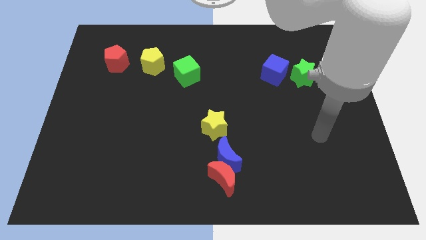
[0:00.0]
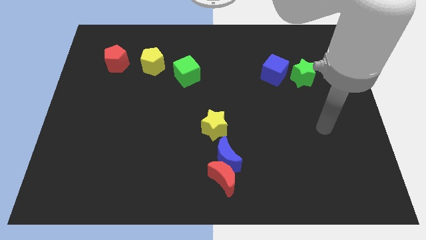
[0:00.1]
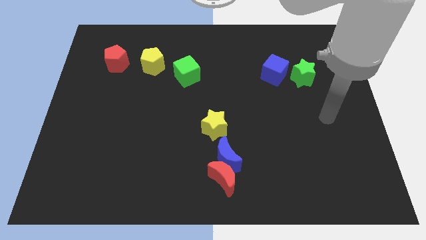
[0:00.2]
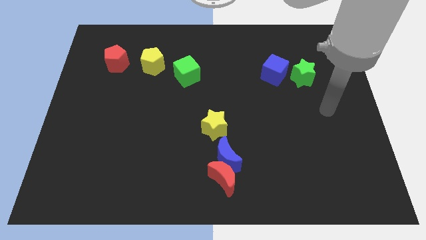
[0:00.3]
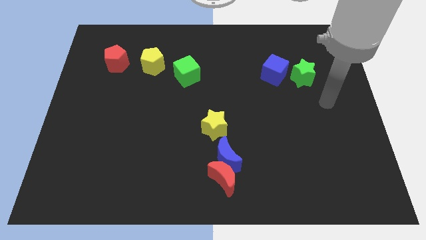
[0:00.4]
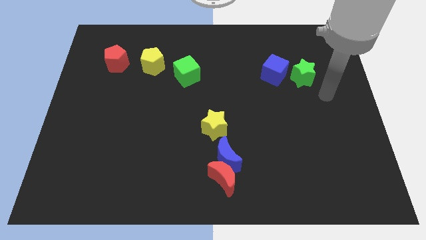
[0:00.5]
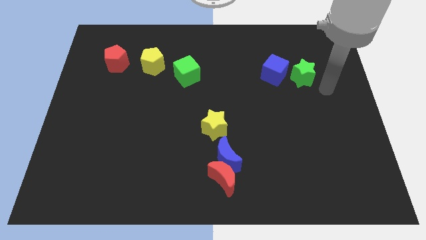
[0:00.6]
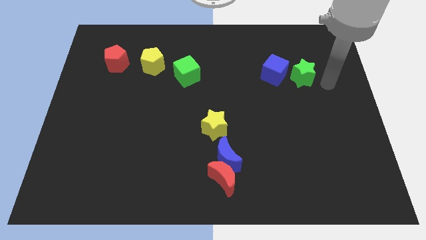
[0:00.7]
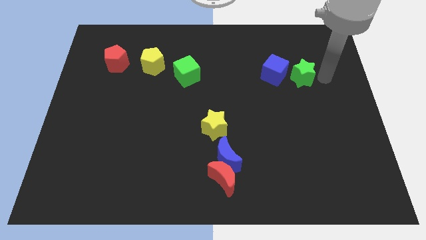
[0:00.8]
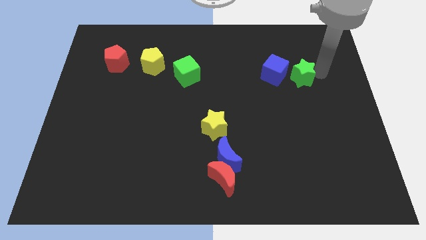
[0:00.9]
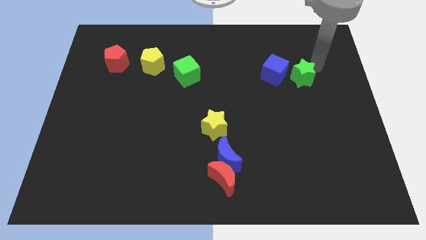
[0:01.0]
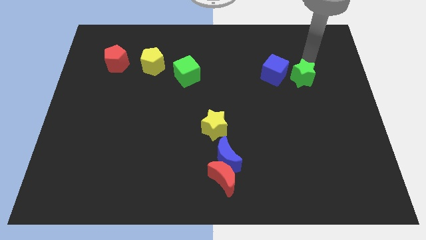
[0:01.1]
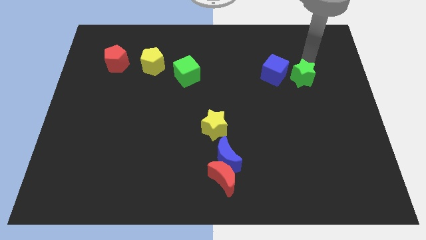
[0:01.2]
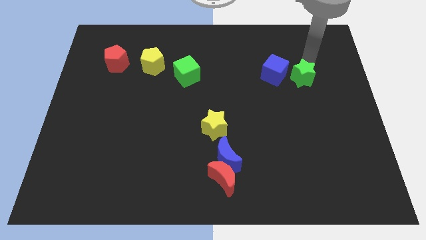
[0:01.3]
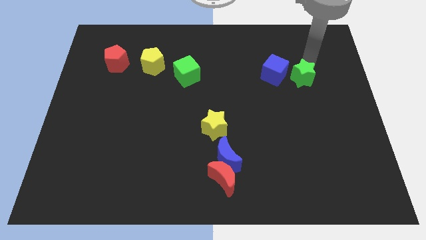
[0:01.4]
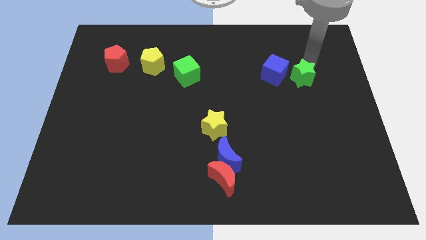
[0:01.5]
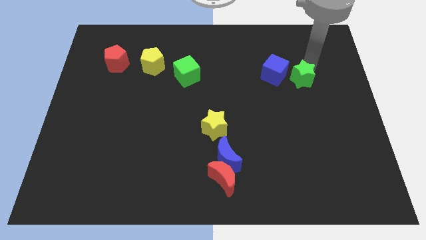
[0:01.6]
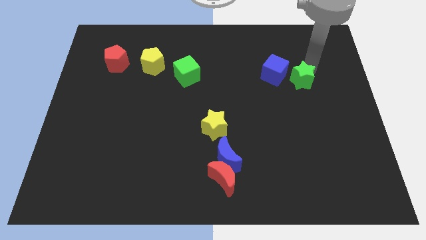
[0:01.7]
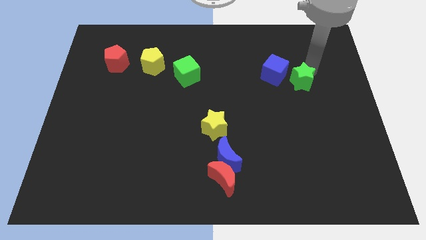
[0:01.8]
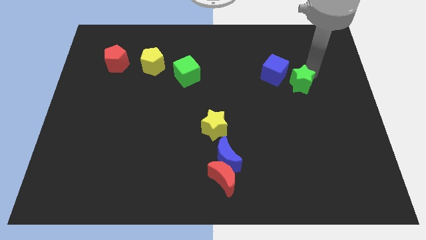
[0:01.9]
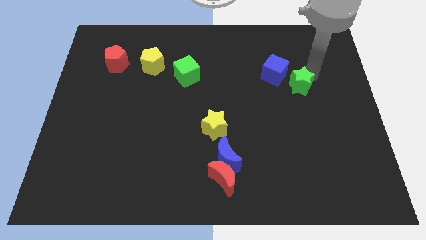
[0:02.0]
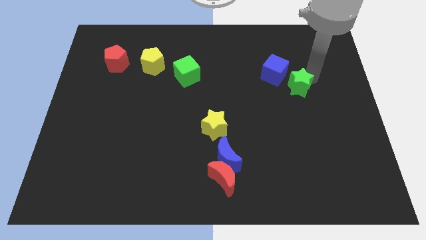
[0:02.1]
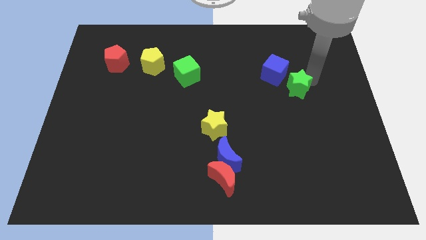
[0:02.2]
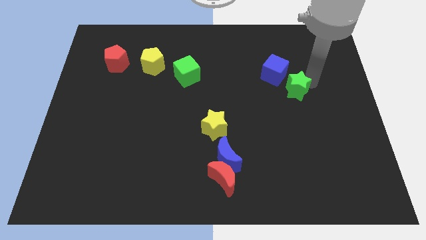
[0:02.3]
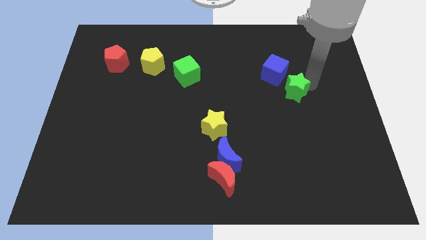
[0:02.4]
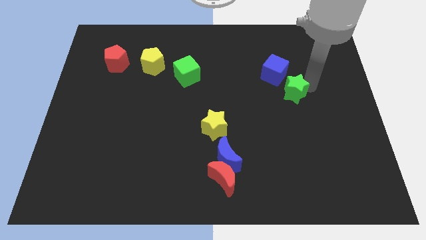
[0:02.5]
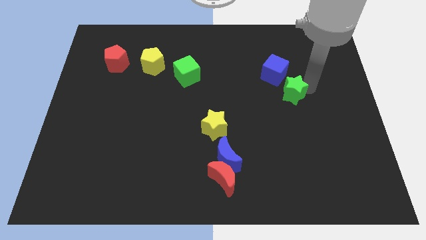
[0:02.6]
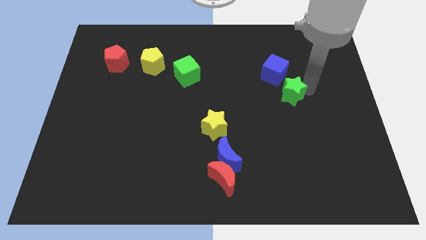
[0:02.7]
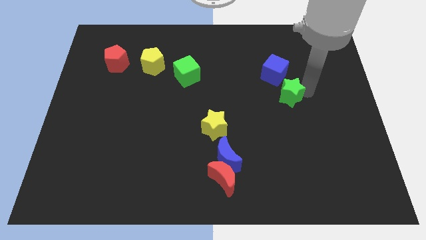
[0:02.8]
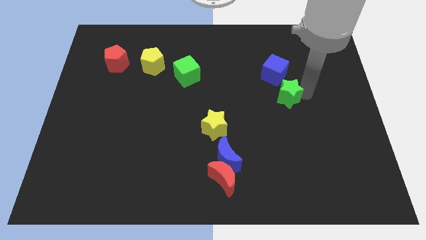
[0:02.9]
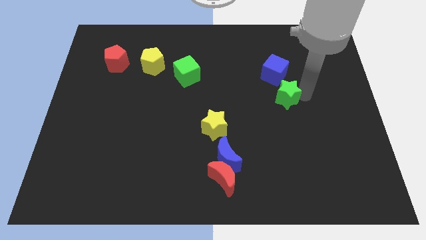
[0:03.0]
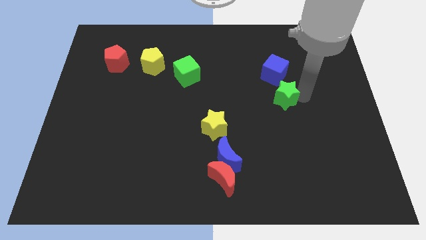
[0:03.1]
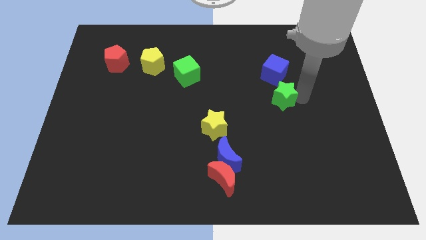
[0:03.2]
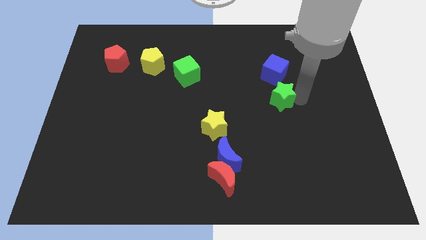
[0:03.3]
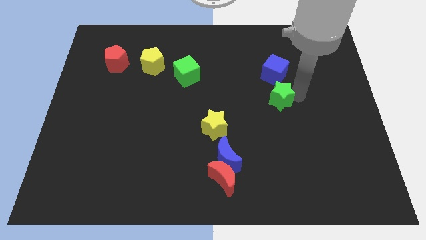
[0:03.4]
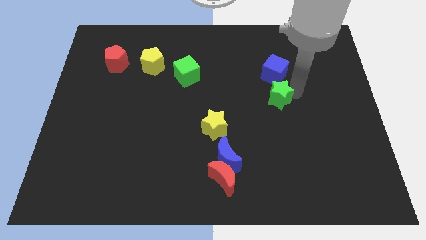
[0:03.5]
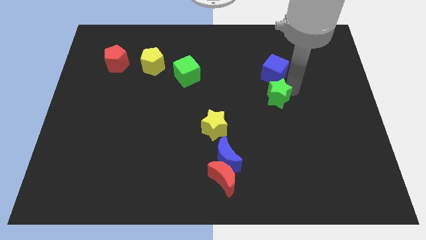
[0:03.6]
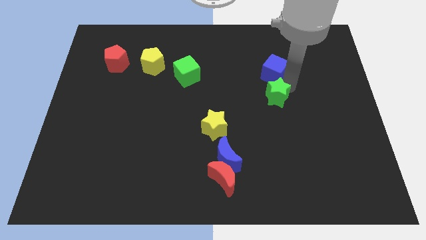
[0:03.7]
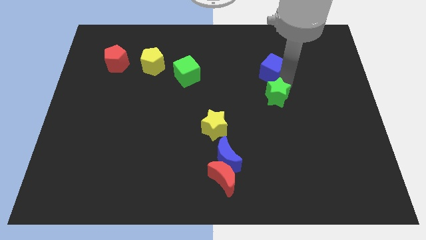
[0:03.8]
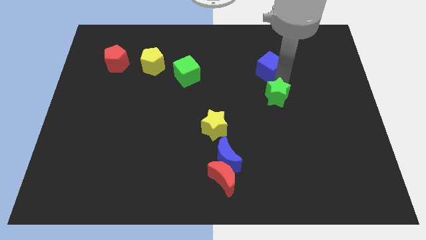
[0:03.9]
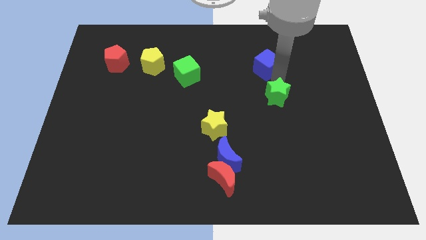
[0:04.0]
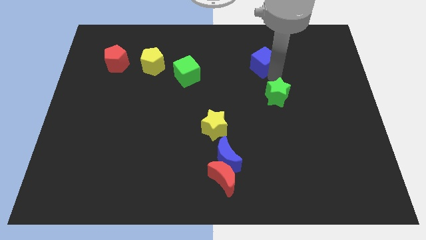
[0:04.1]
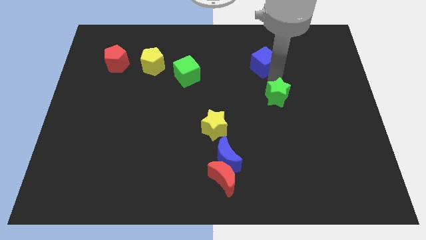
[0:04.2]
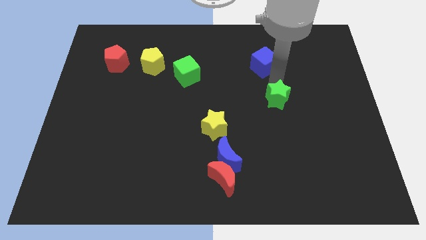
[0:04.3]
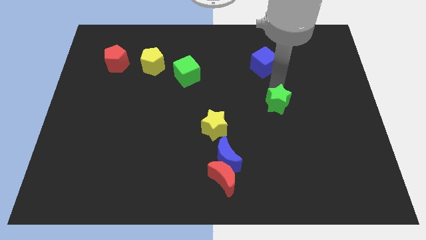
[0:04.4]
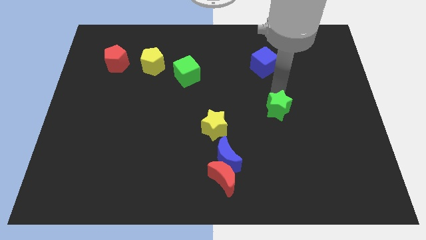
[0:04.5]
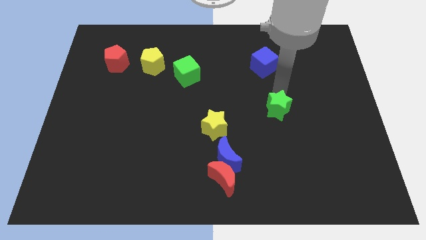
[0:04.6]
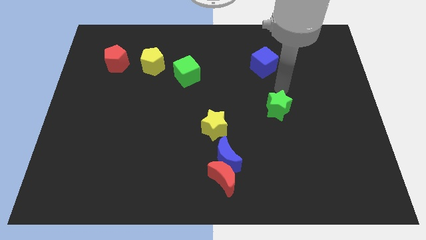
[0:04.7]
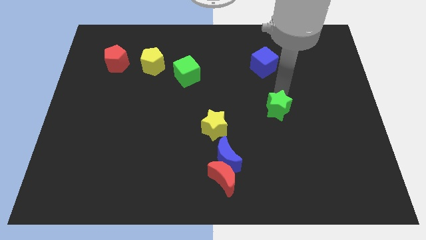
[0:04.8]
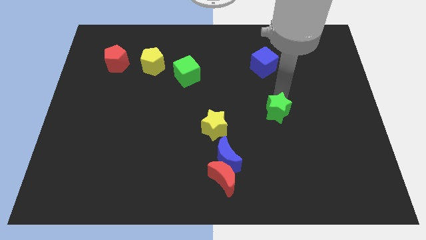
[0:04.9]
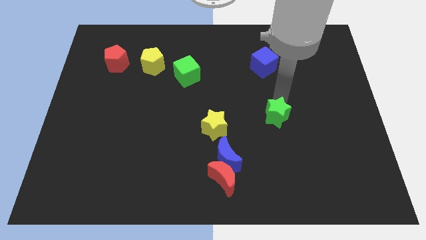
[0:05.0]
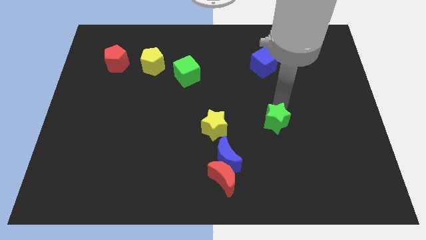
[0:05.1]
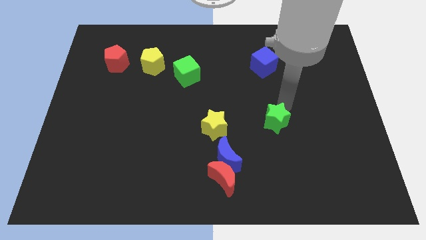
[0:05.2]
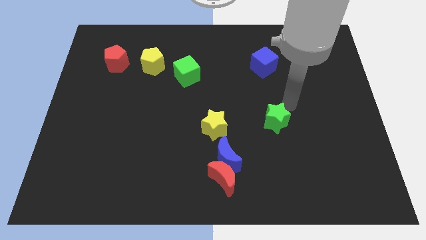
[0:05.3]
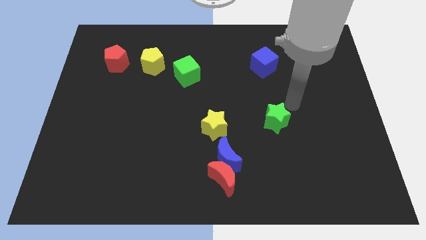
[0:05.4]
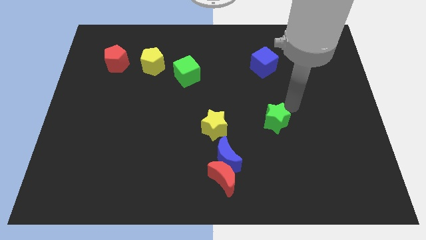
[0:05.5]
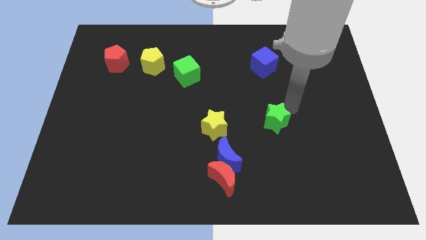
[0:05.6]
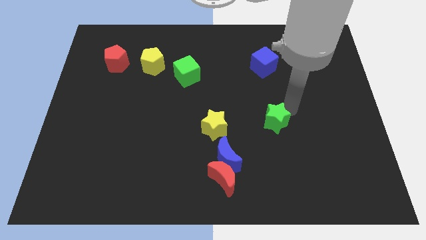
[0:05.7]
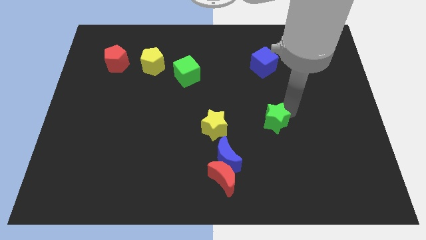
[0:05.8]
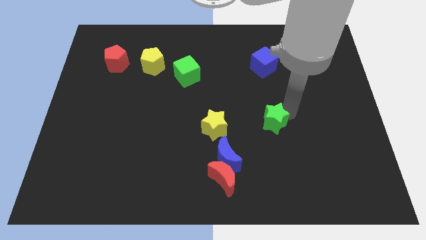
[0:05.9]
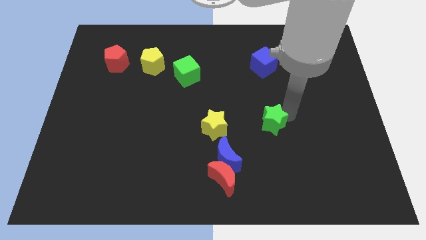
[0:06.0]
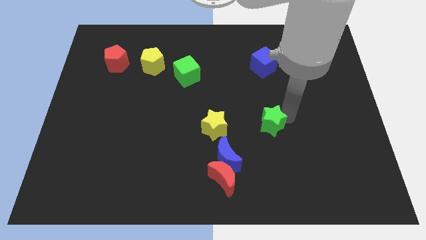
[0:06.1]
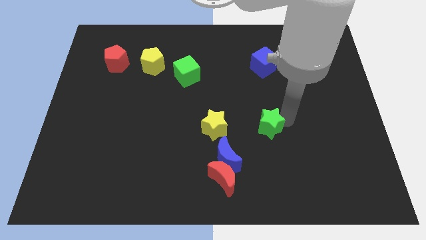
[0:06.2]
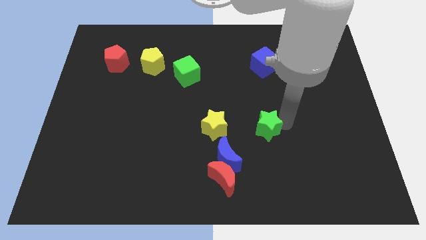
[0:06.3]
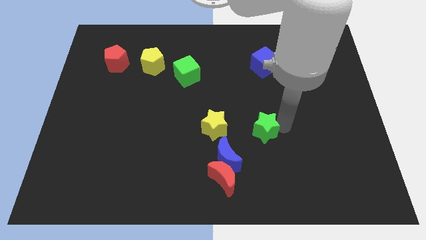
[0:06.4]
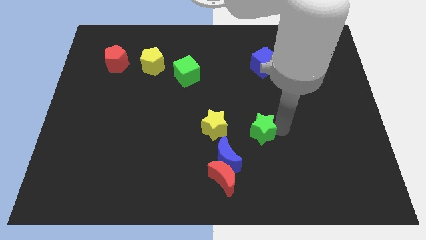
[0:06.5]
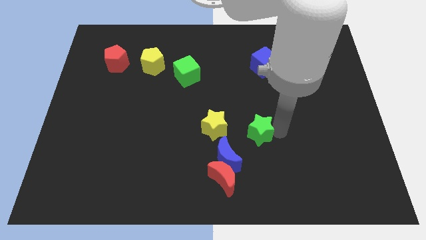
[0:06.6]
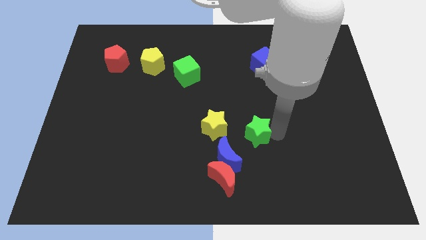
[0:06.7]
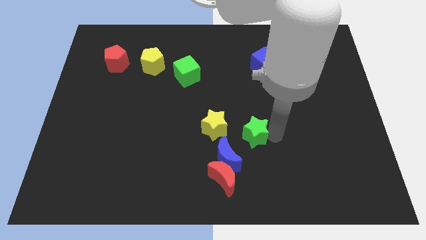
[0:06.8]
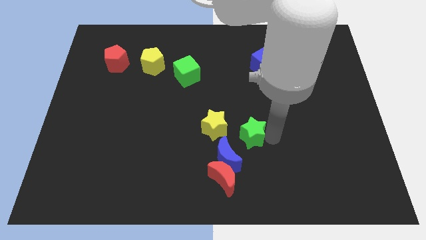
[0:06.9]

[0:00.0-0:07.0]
slide the green star to the bottom right side of the yellow star

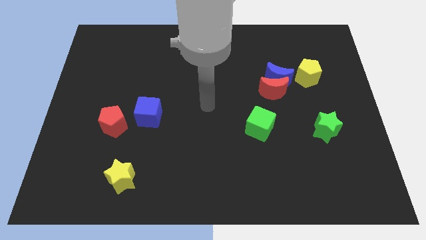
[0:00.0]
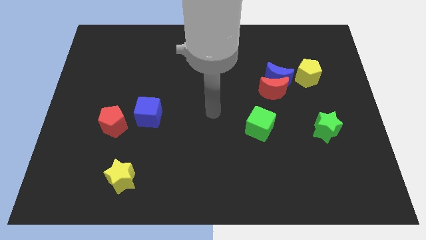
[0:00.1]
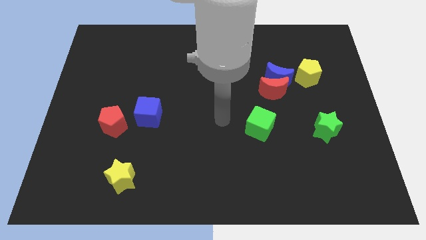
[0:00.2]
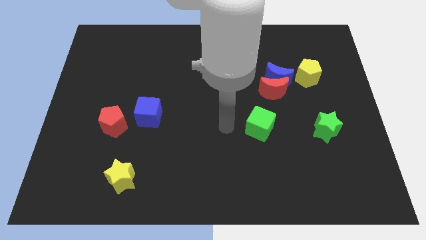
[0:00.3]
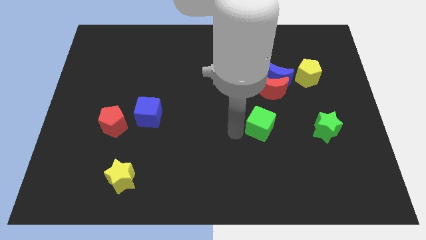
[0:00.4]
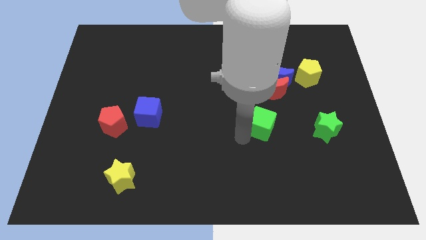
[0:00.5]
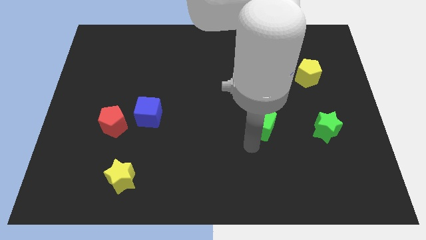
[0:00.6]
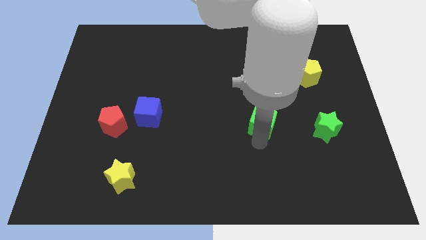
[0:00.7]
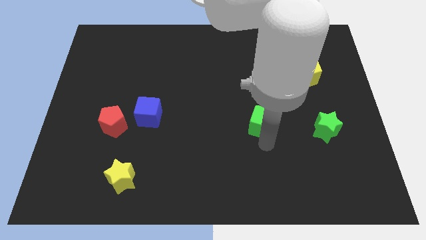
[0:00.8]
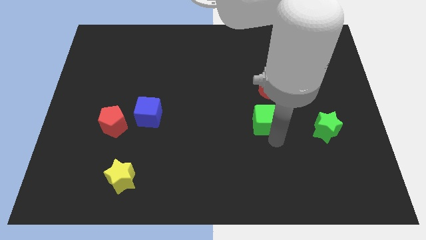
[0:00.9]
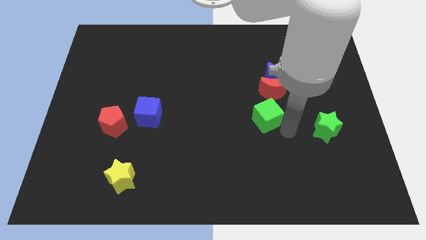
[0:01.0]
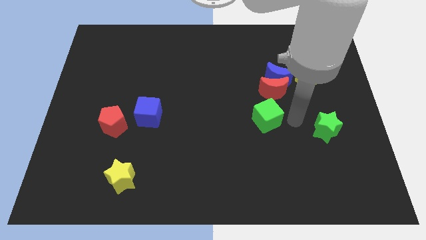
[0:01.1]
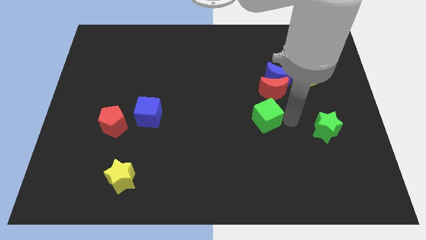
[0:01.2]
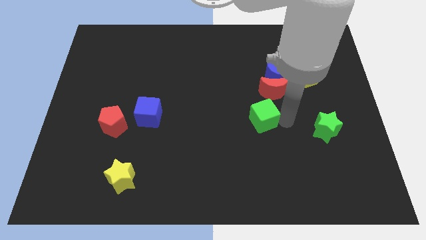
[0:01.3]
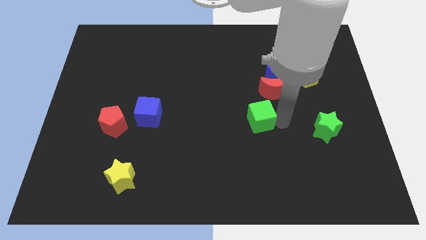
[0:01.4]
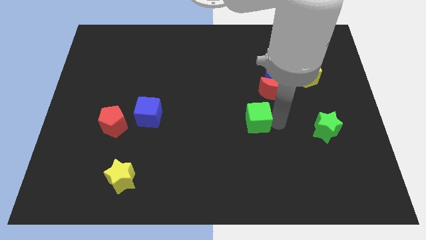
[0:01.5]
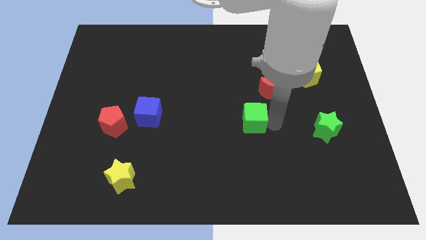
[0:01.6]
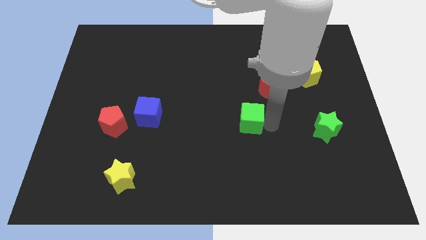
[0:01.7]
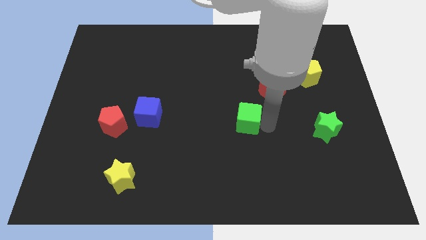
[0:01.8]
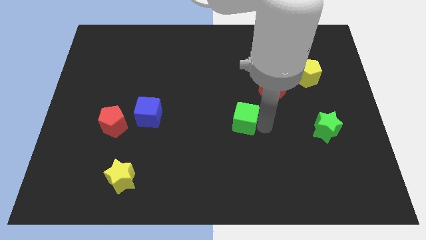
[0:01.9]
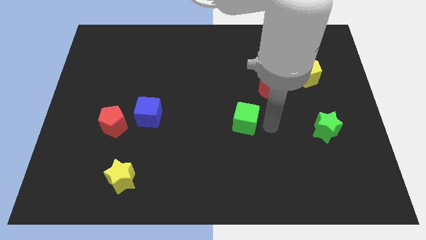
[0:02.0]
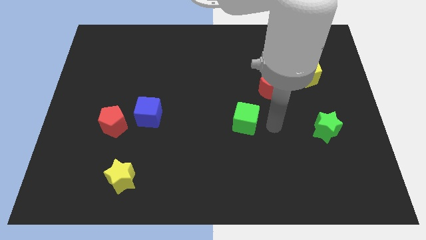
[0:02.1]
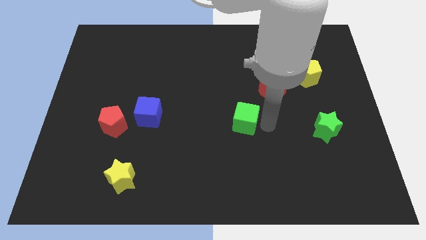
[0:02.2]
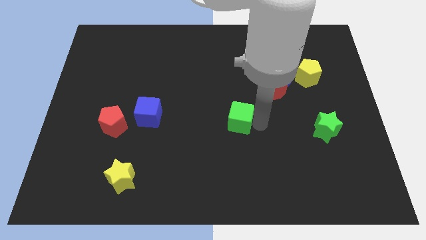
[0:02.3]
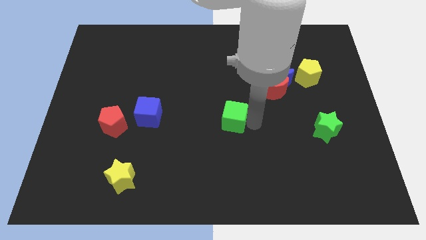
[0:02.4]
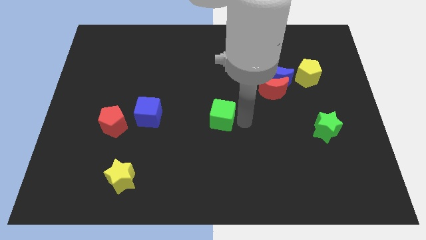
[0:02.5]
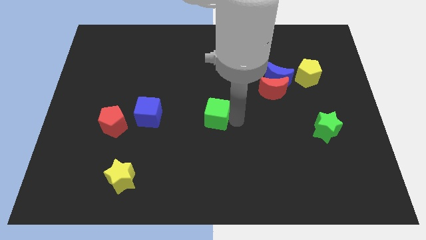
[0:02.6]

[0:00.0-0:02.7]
move the green cube right of the blue cube
